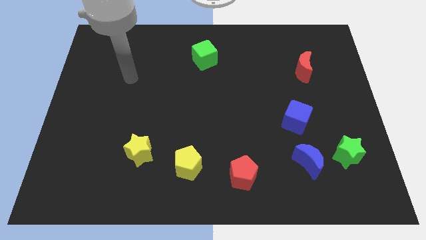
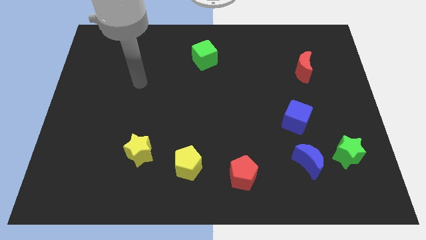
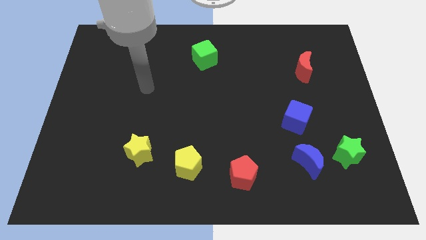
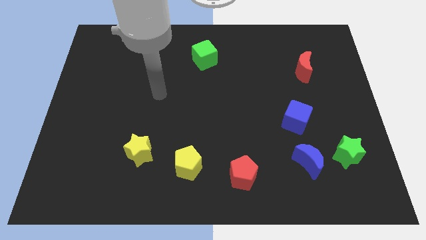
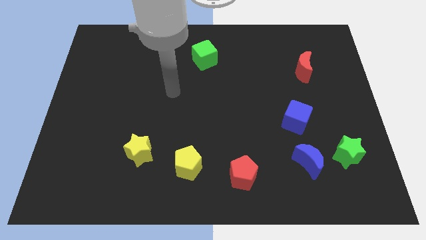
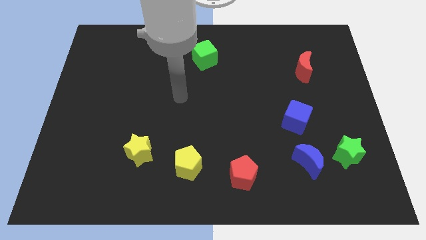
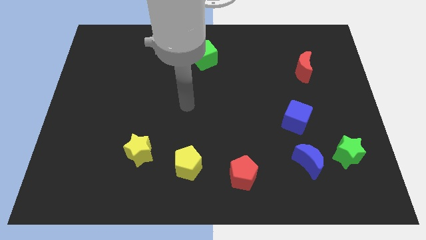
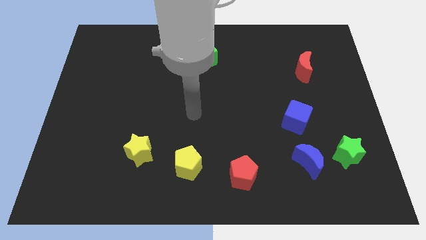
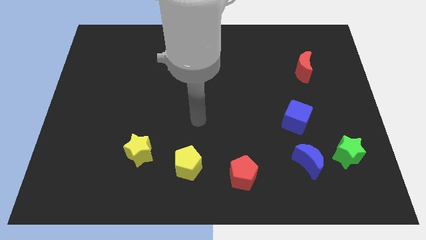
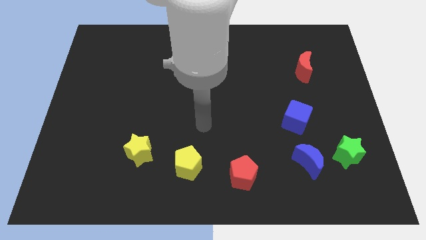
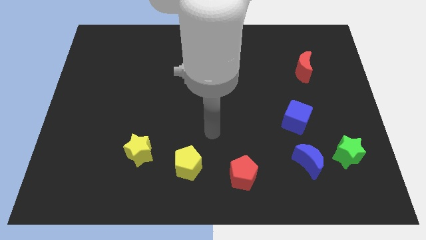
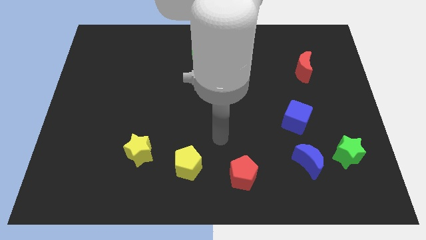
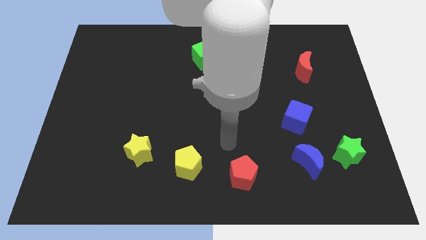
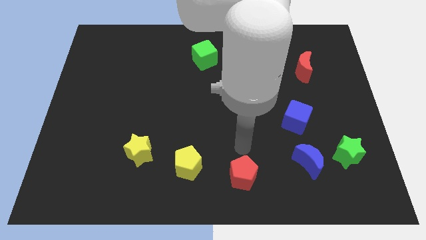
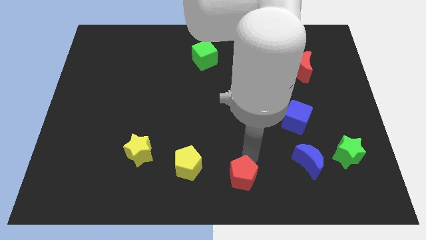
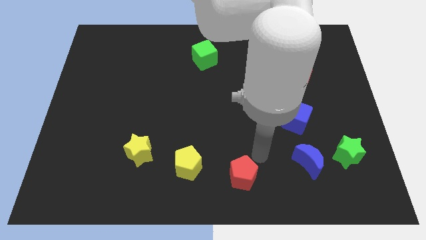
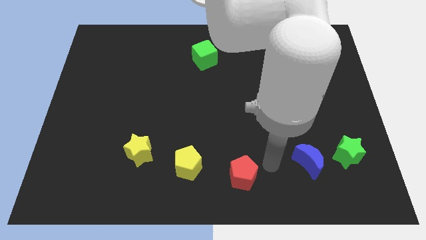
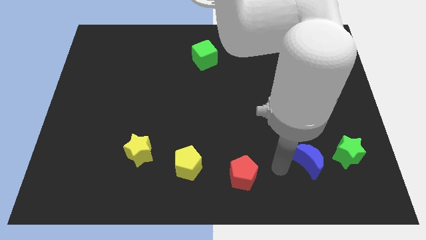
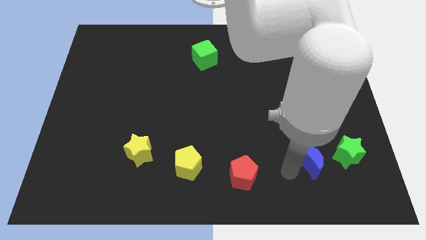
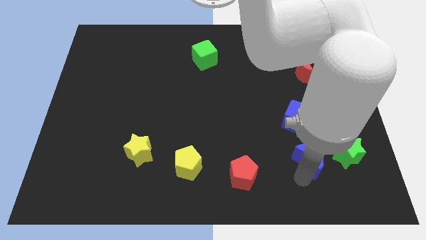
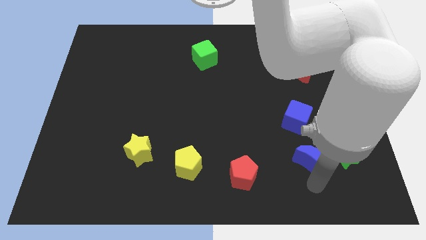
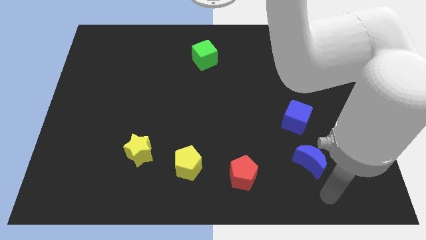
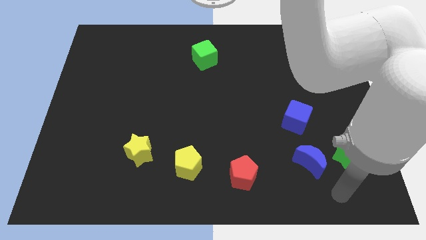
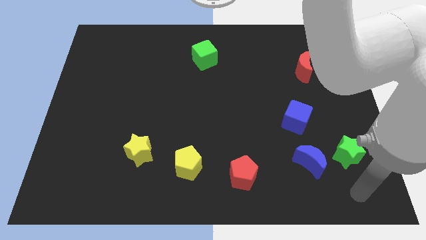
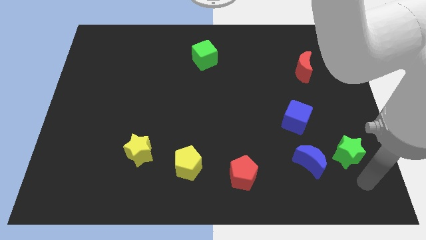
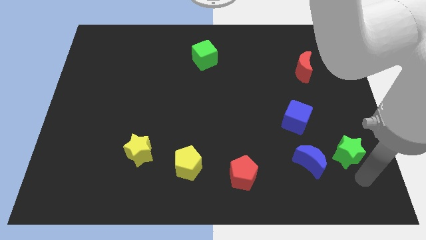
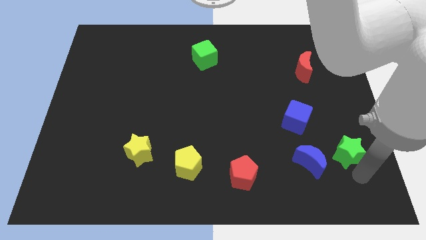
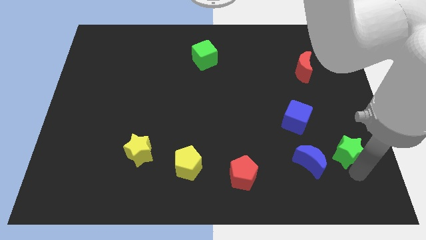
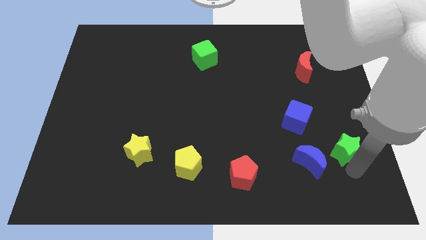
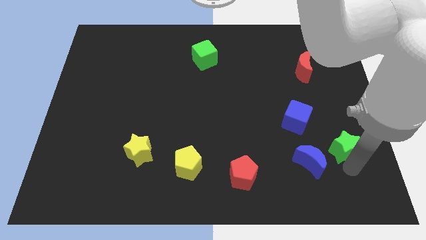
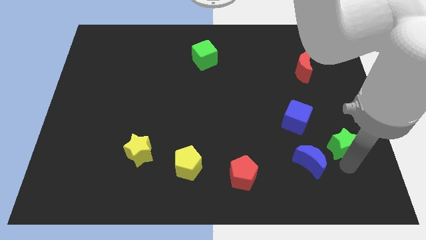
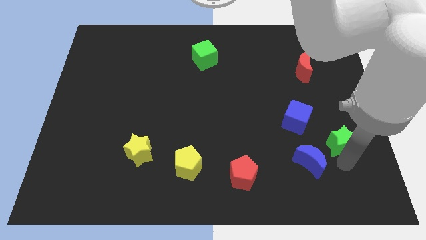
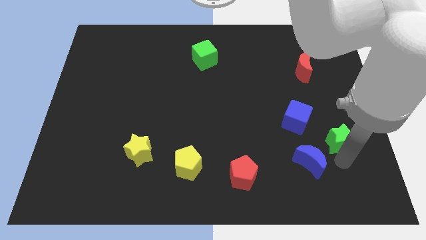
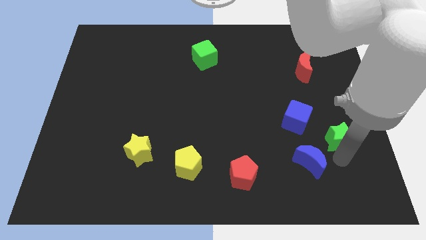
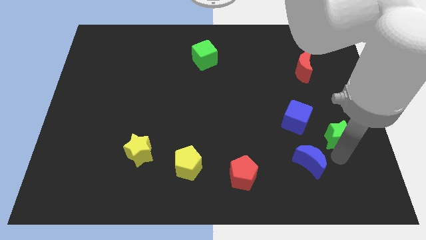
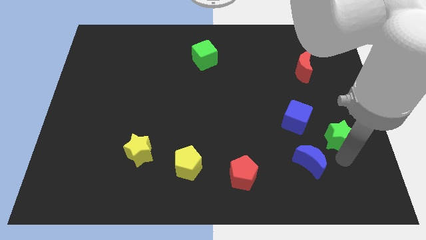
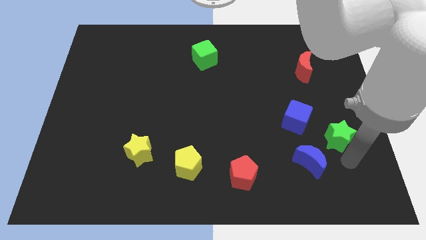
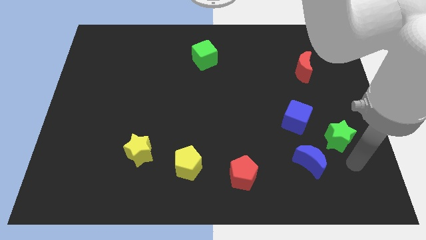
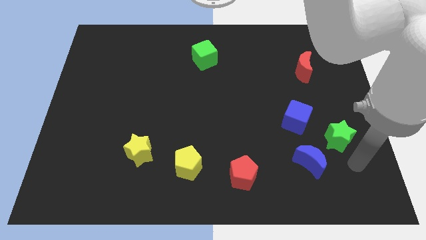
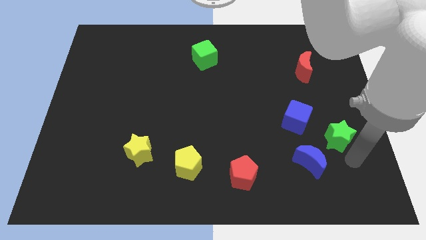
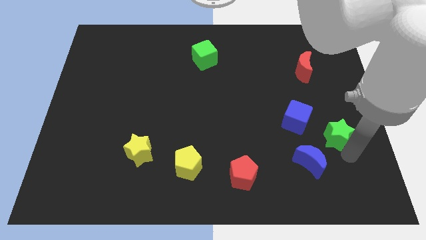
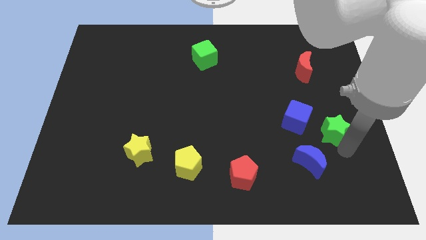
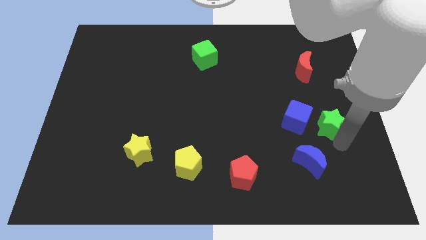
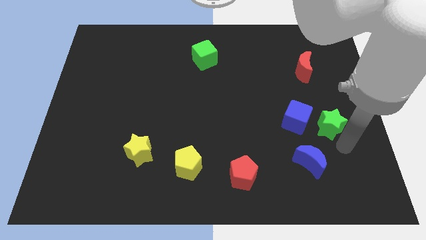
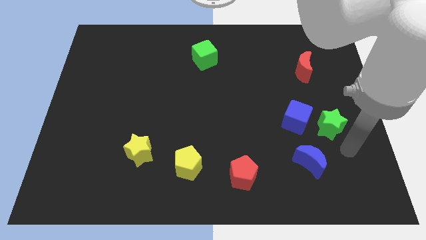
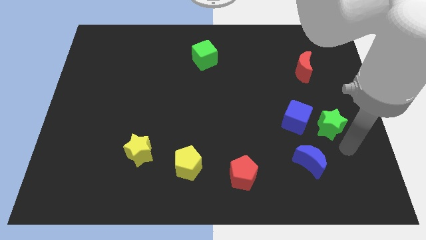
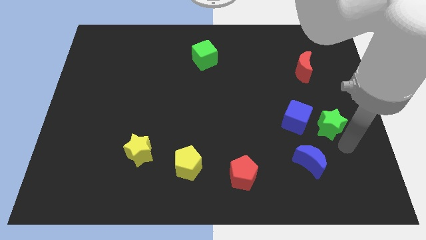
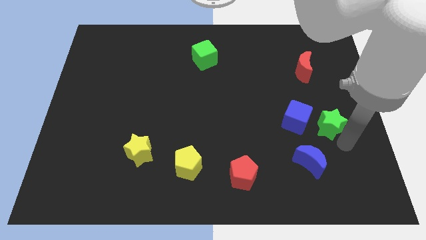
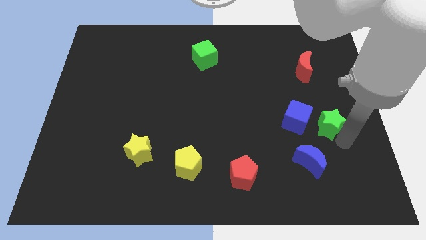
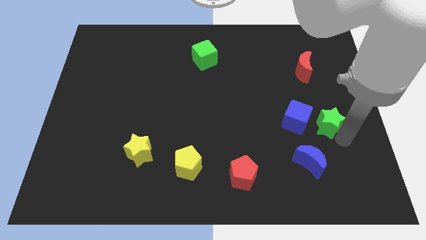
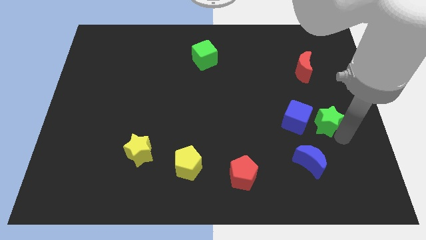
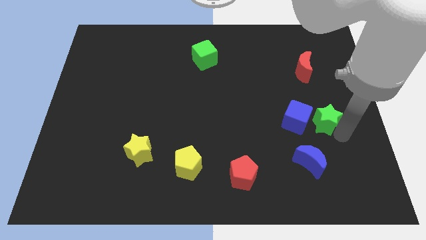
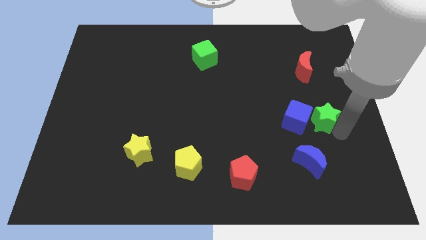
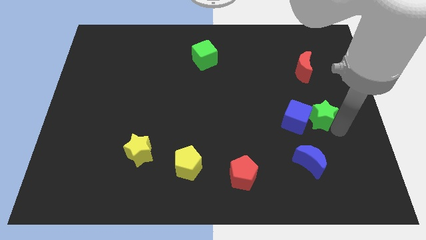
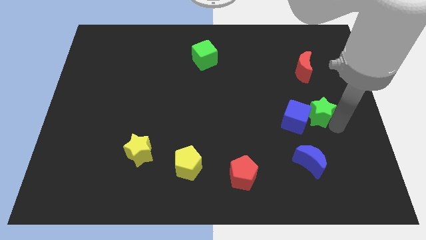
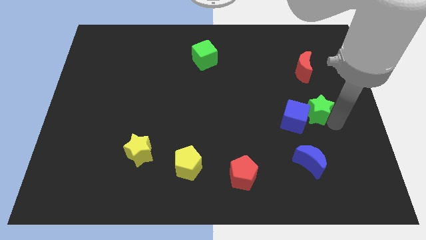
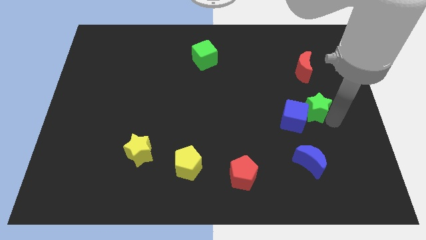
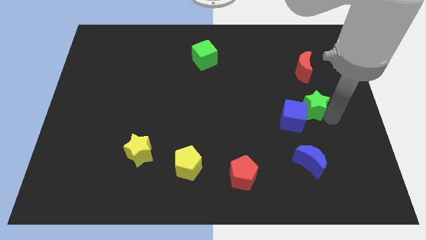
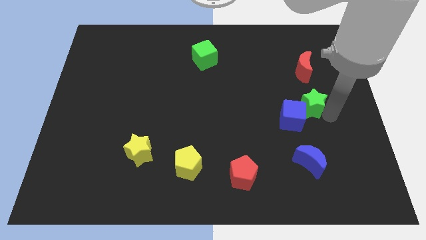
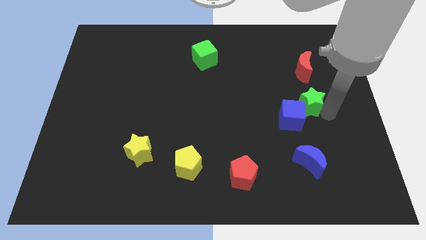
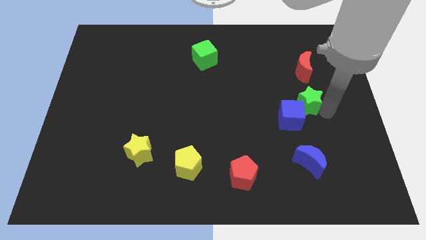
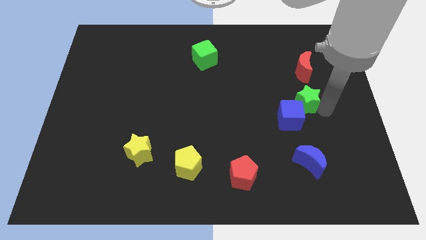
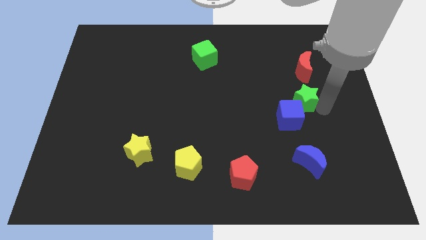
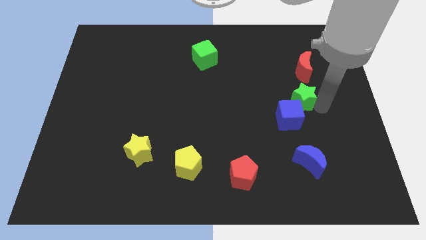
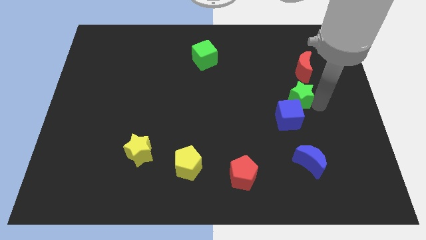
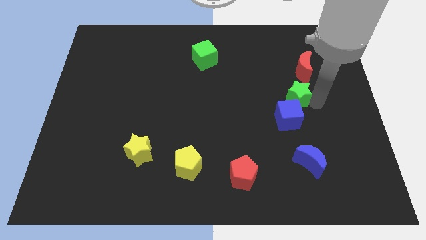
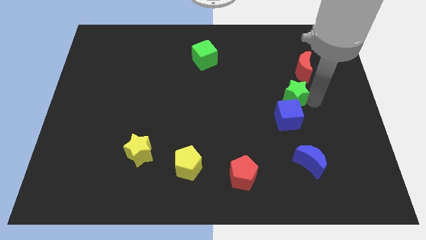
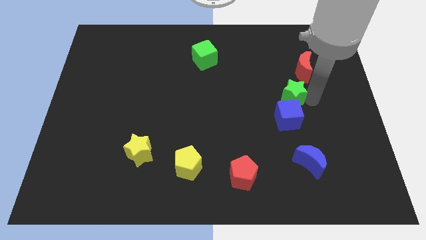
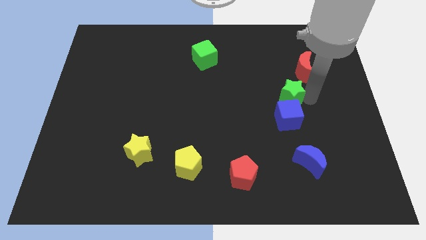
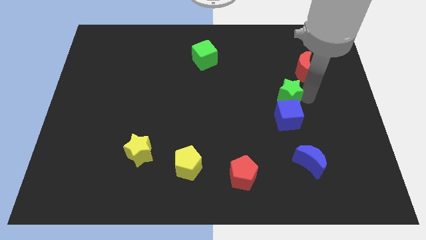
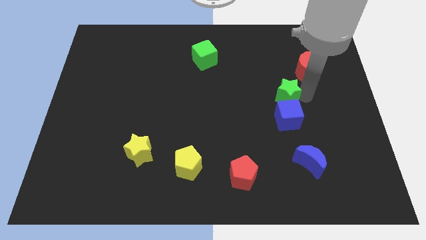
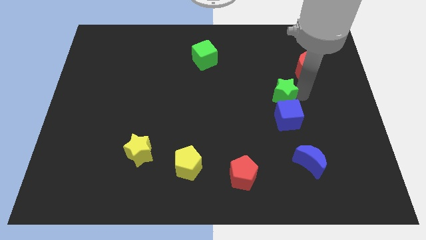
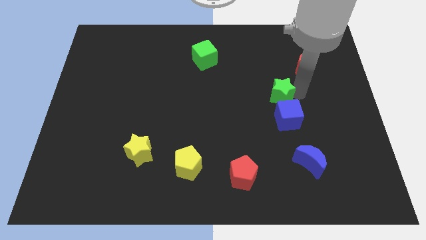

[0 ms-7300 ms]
push the green star up and to the left diagonally

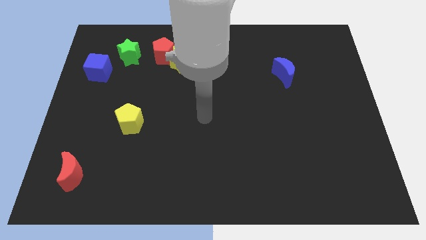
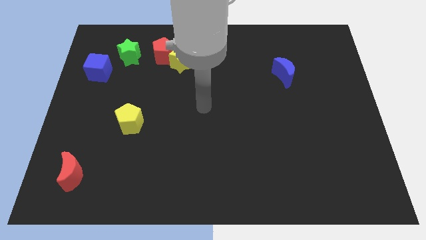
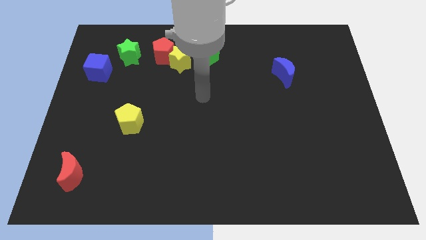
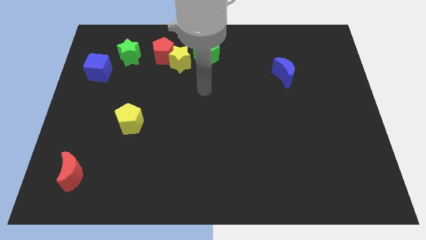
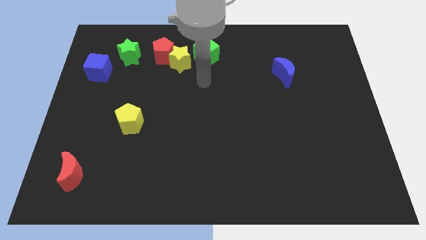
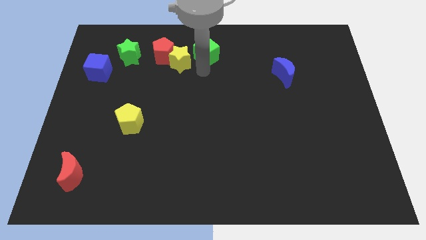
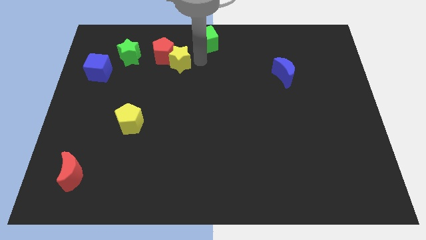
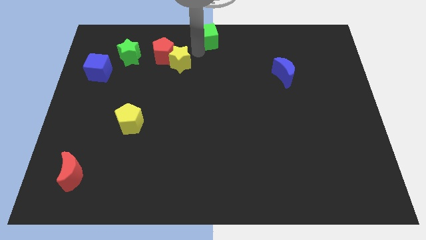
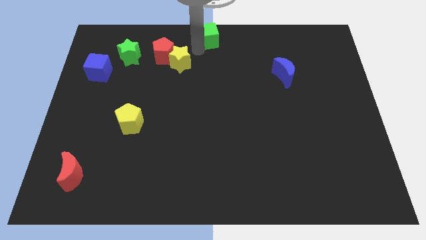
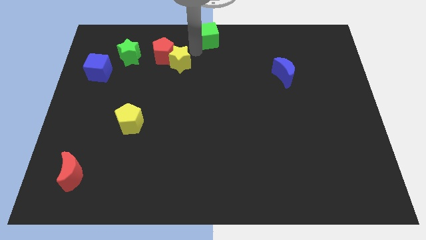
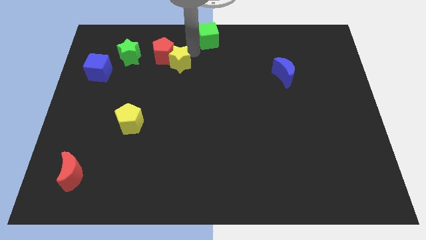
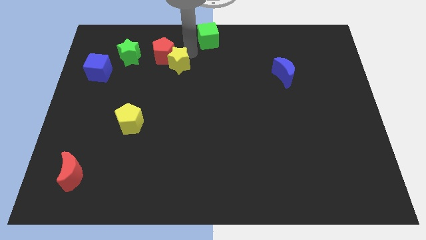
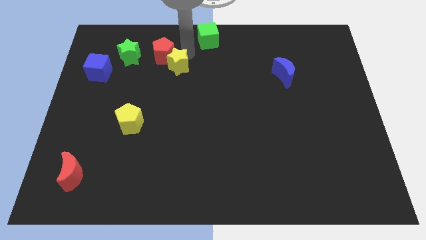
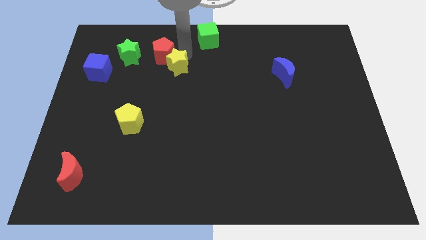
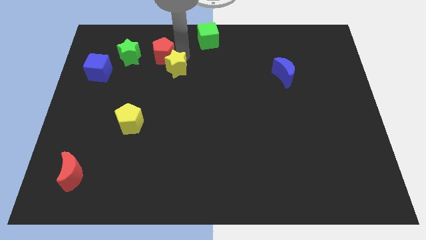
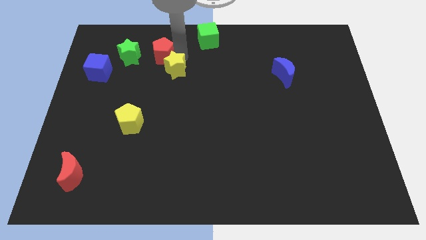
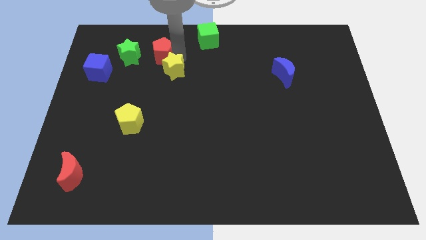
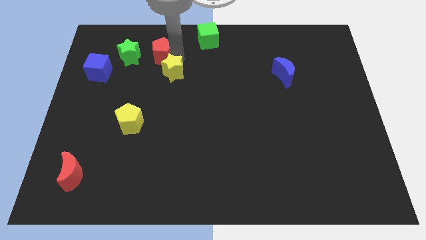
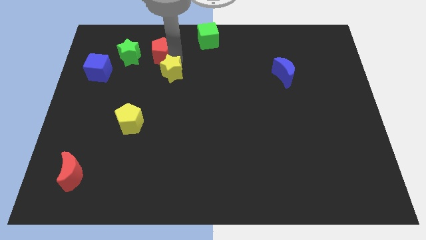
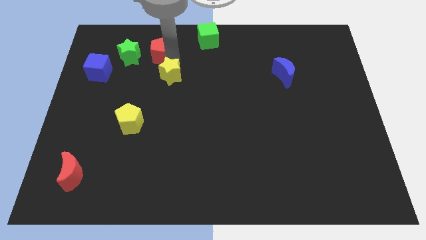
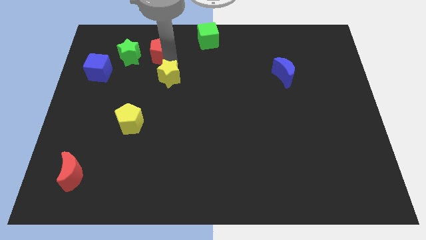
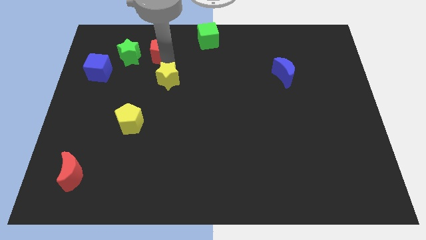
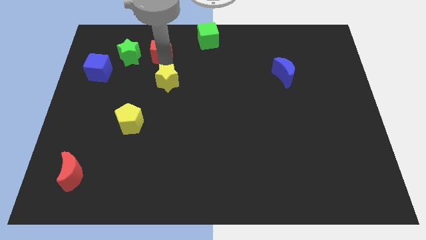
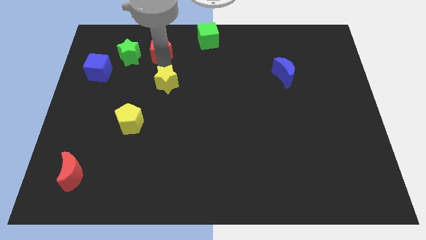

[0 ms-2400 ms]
slightly slide the yellow star downwards and then left
